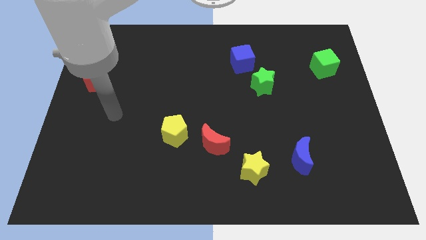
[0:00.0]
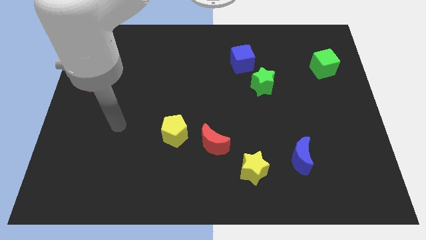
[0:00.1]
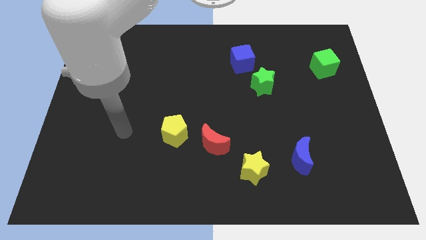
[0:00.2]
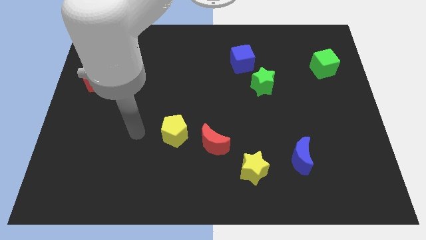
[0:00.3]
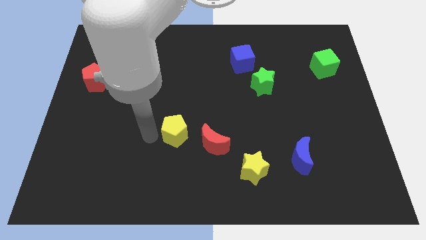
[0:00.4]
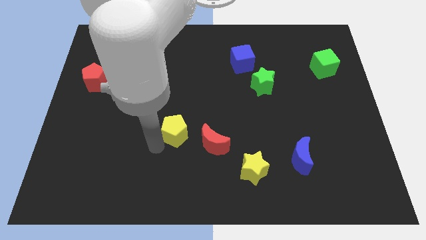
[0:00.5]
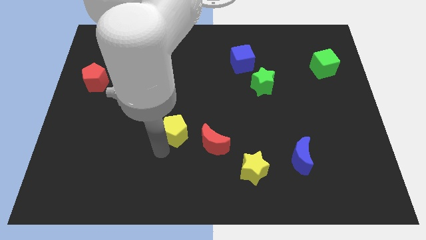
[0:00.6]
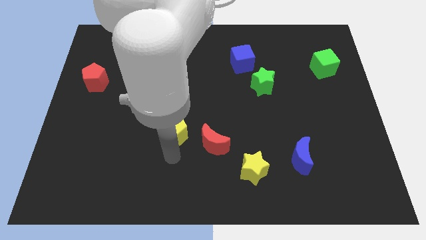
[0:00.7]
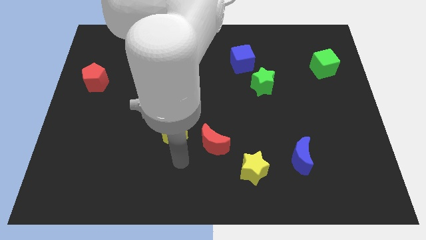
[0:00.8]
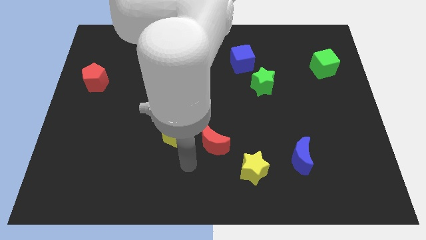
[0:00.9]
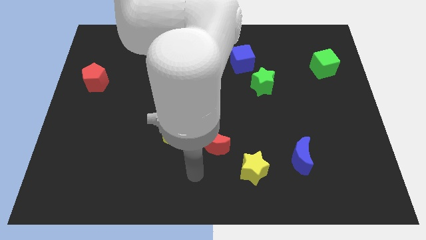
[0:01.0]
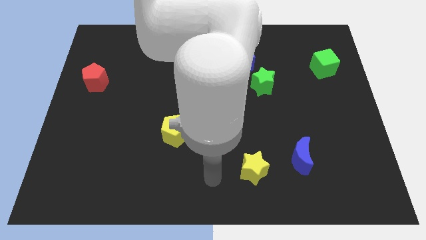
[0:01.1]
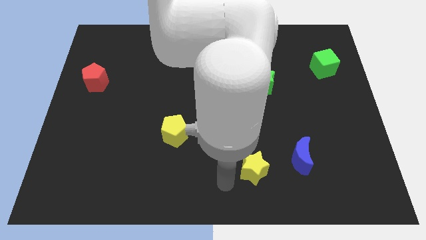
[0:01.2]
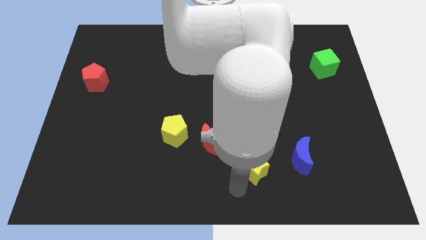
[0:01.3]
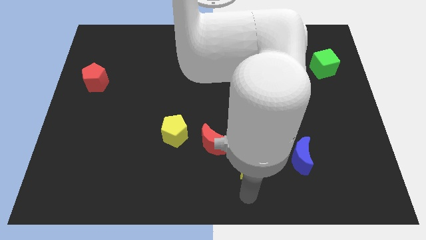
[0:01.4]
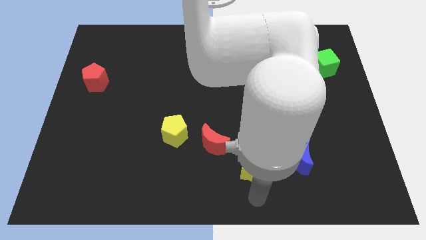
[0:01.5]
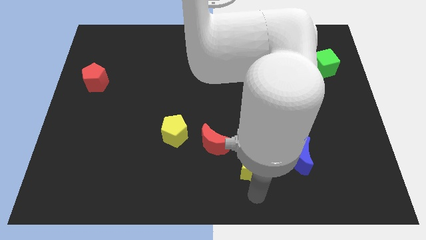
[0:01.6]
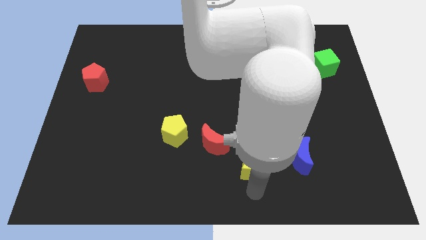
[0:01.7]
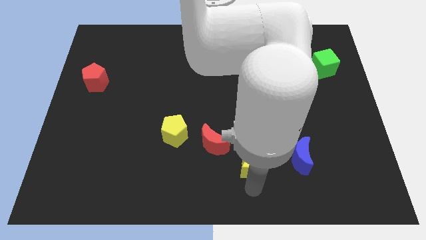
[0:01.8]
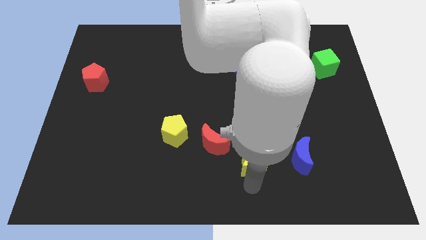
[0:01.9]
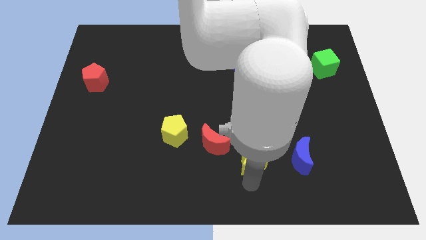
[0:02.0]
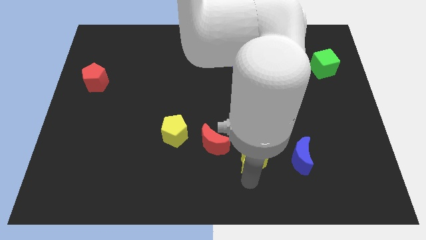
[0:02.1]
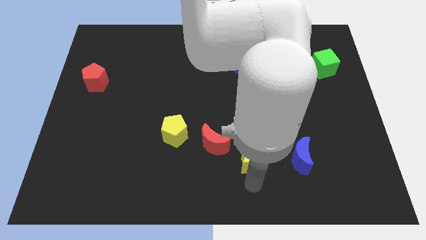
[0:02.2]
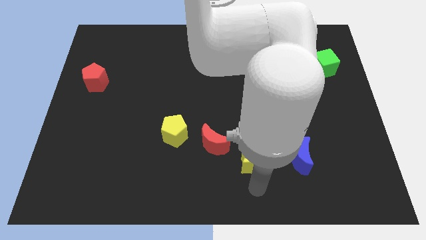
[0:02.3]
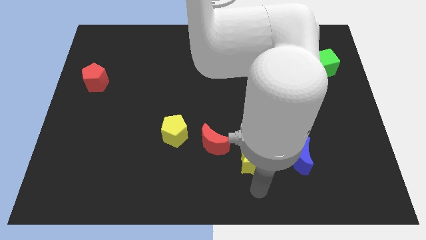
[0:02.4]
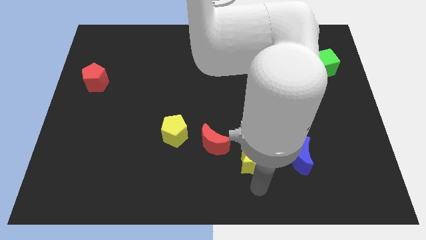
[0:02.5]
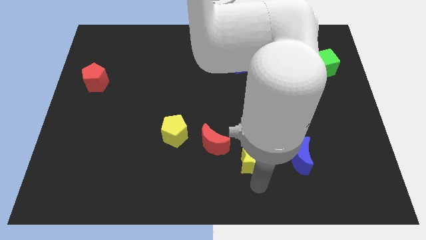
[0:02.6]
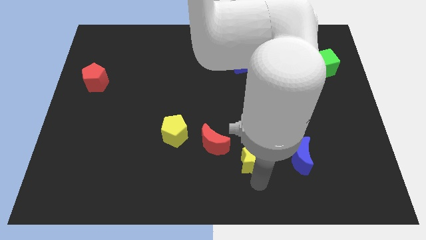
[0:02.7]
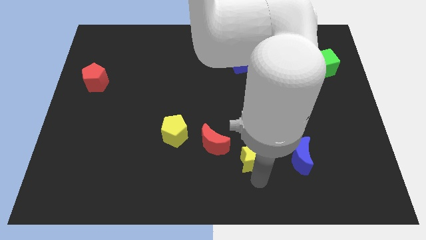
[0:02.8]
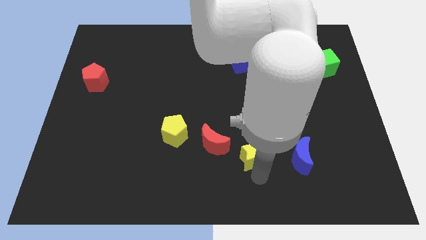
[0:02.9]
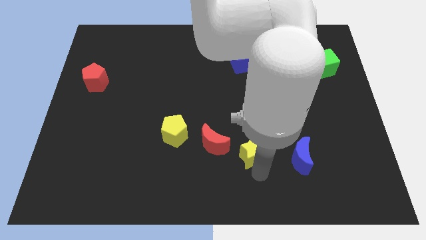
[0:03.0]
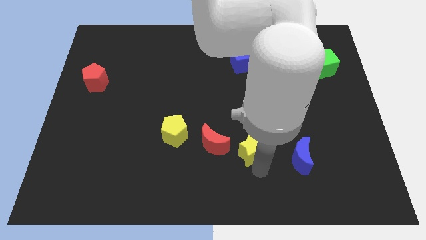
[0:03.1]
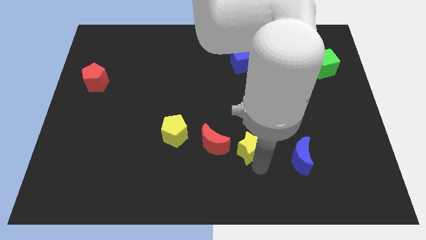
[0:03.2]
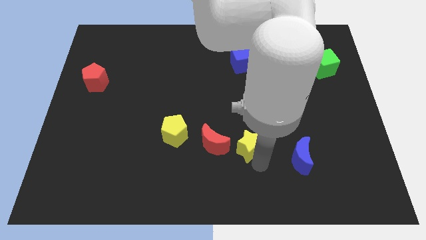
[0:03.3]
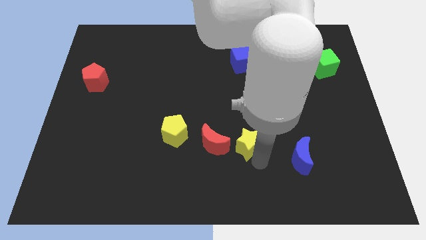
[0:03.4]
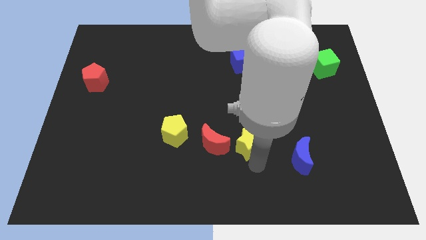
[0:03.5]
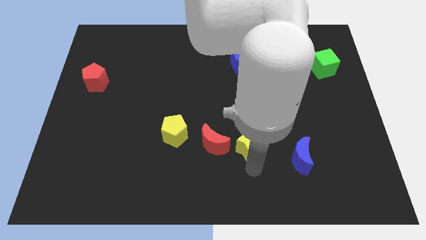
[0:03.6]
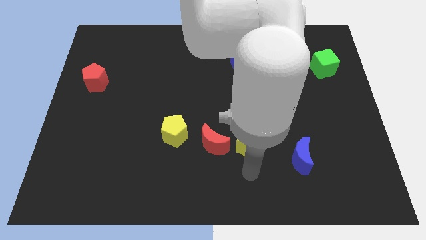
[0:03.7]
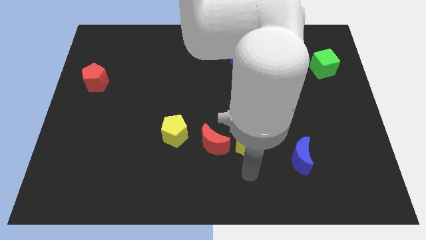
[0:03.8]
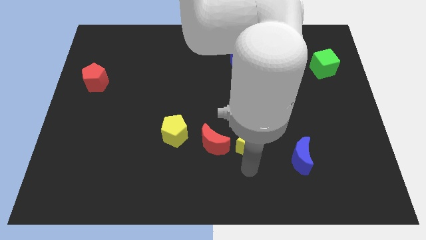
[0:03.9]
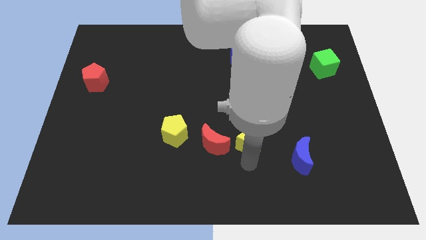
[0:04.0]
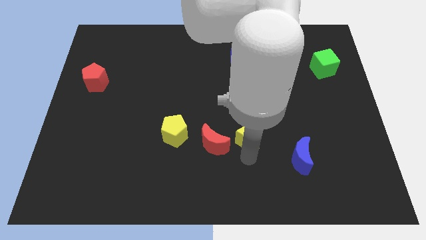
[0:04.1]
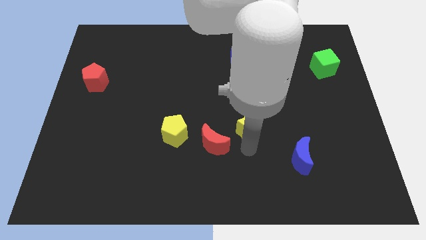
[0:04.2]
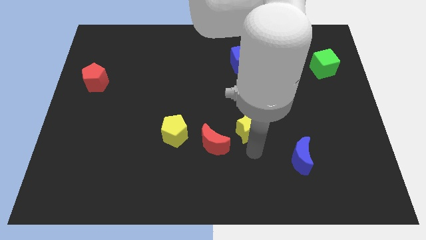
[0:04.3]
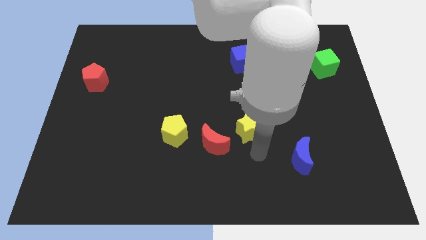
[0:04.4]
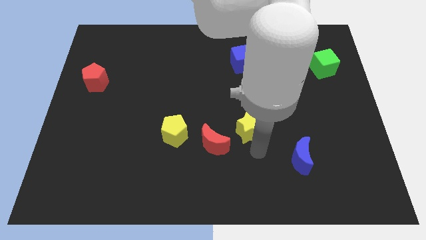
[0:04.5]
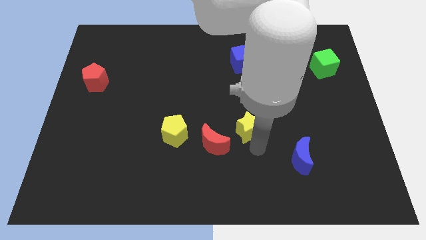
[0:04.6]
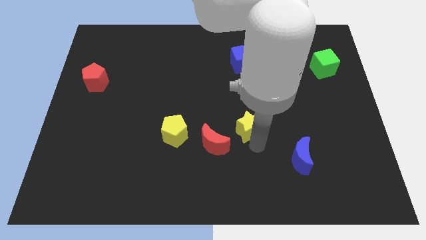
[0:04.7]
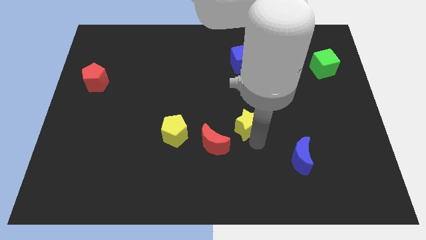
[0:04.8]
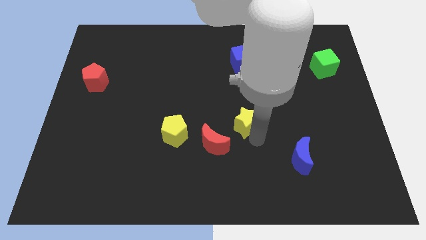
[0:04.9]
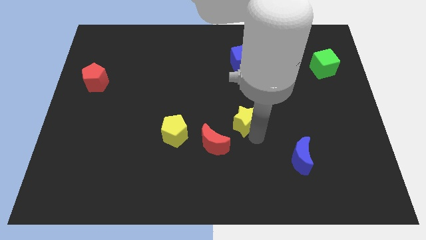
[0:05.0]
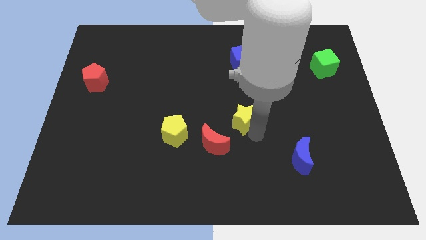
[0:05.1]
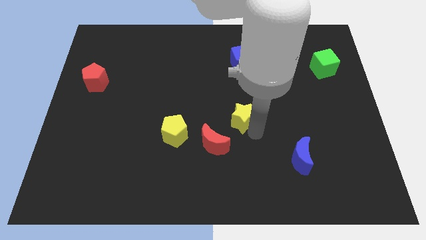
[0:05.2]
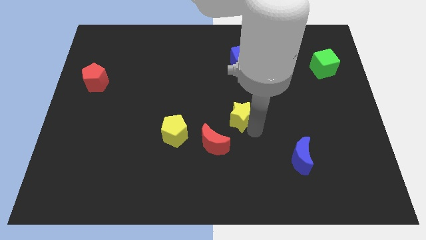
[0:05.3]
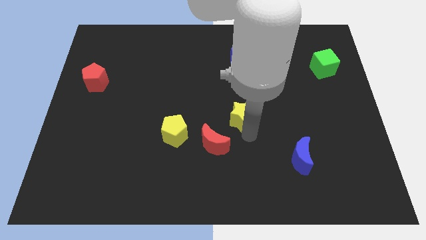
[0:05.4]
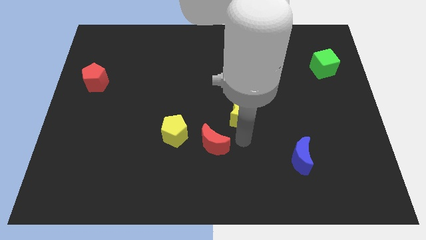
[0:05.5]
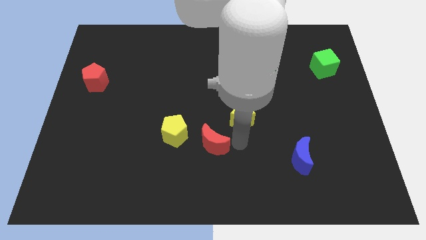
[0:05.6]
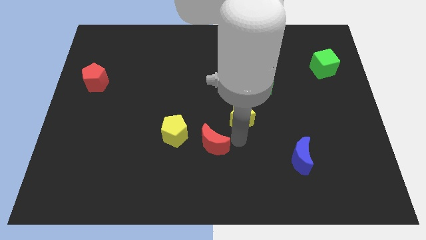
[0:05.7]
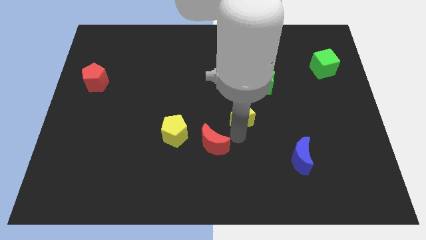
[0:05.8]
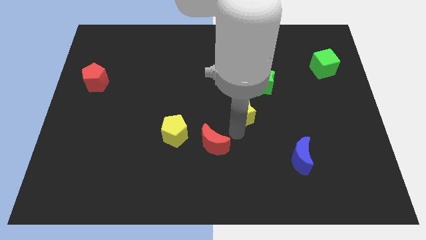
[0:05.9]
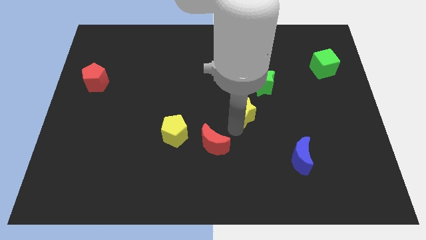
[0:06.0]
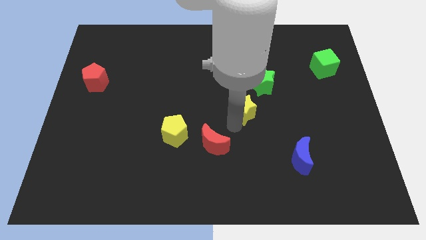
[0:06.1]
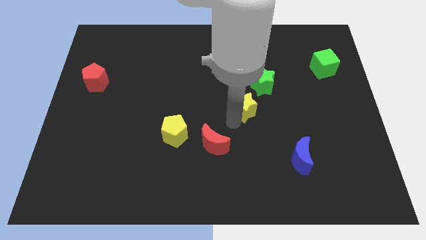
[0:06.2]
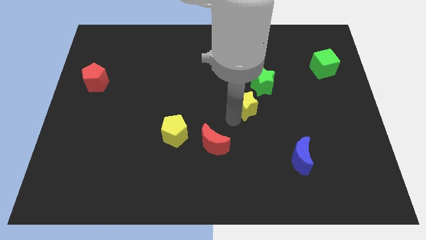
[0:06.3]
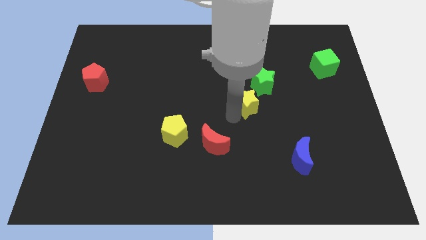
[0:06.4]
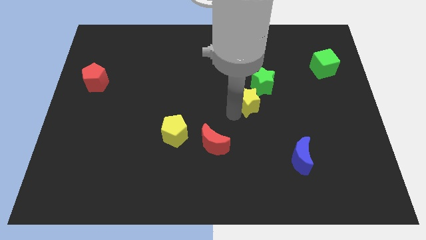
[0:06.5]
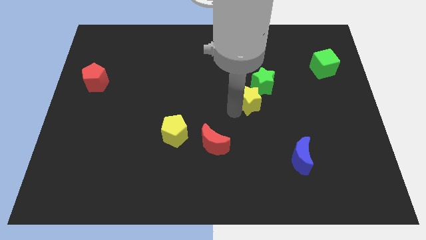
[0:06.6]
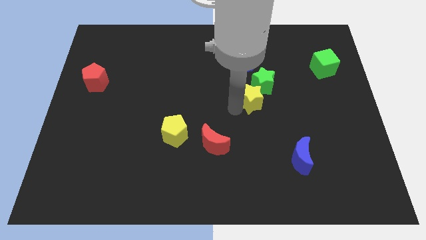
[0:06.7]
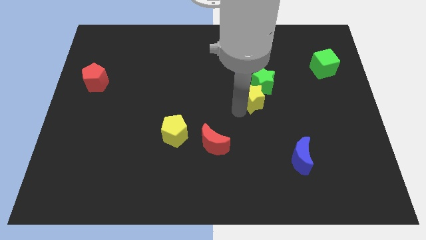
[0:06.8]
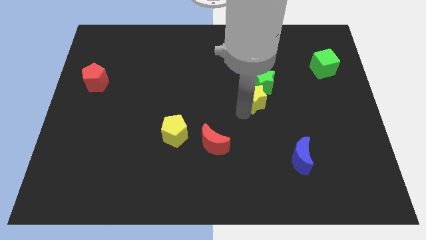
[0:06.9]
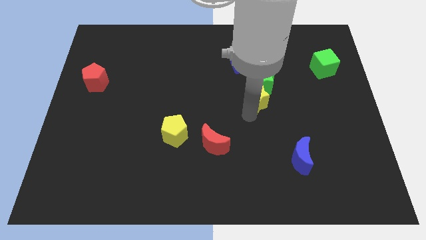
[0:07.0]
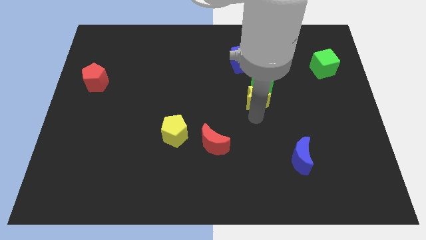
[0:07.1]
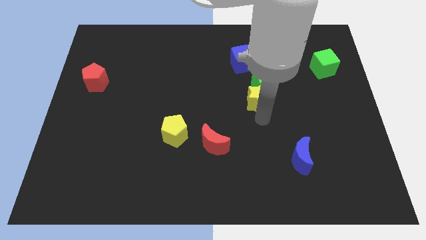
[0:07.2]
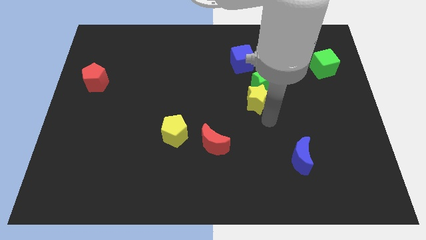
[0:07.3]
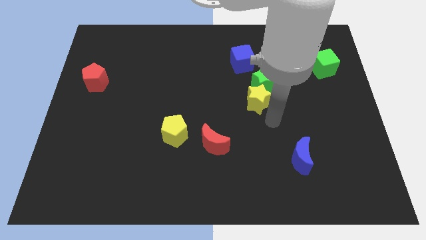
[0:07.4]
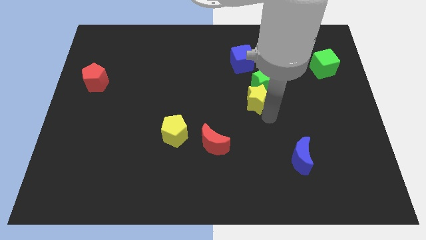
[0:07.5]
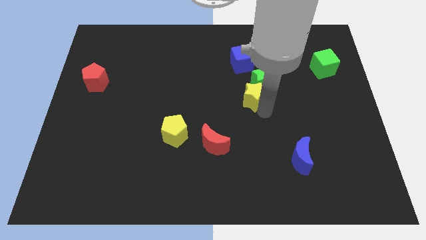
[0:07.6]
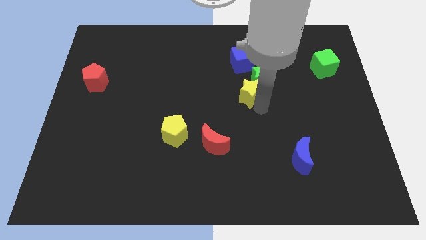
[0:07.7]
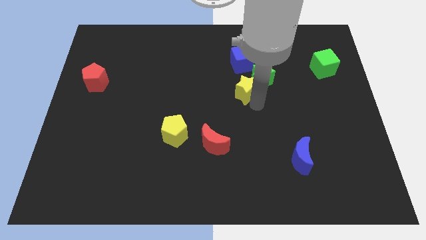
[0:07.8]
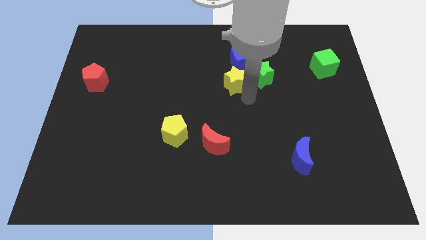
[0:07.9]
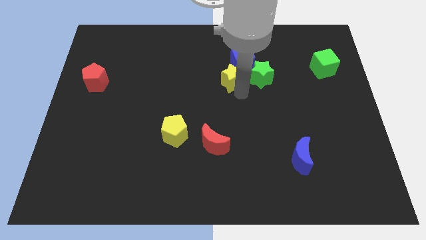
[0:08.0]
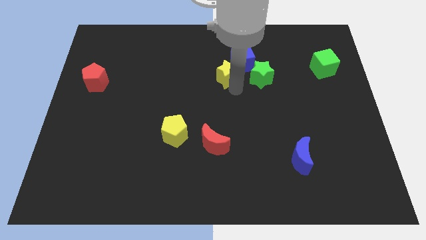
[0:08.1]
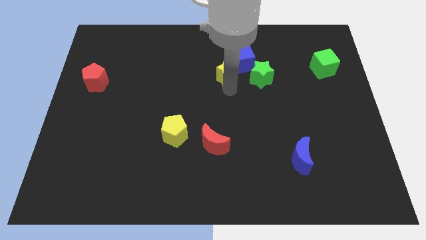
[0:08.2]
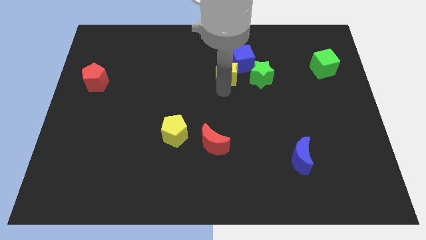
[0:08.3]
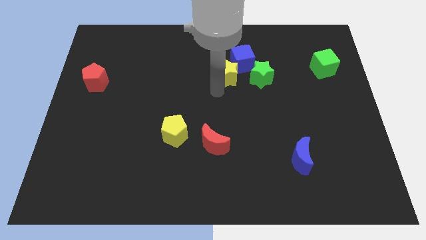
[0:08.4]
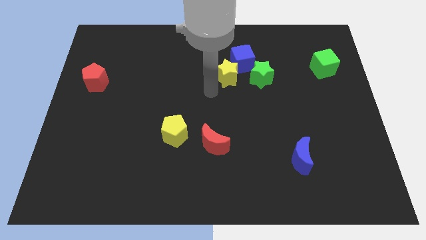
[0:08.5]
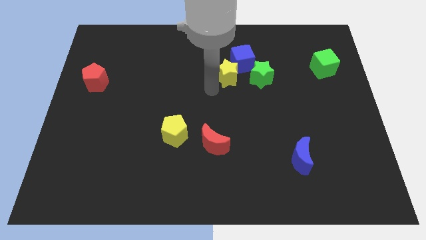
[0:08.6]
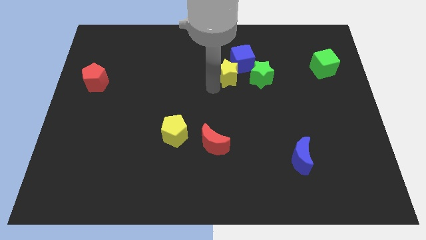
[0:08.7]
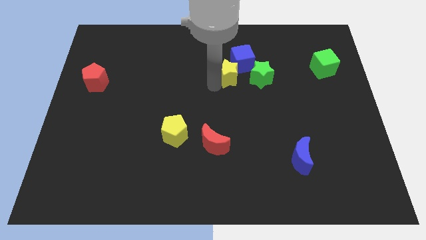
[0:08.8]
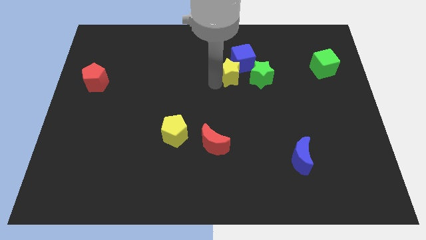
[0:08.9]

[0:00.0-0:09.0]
move the yellow star next to the blue cube
